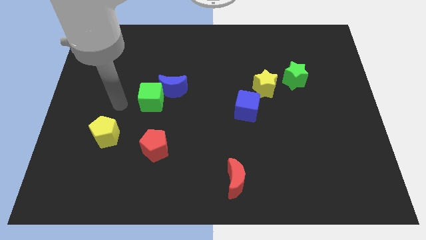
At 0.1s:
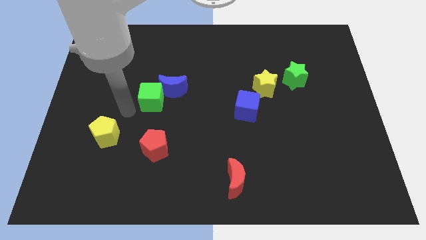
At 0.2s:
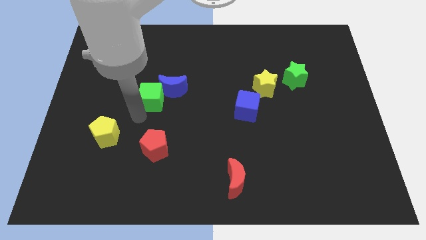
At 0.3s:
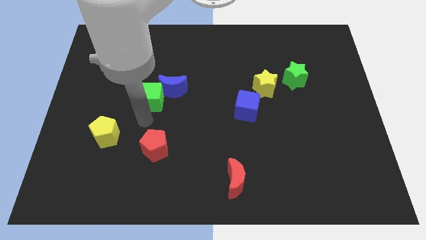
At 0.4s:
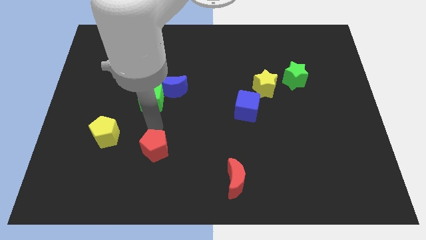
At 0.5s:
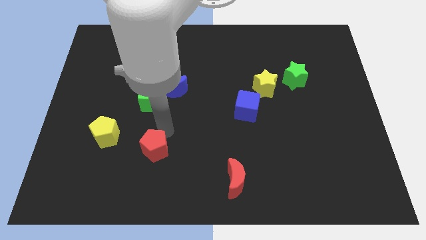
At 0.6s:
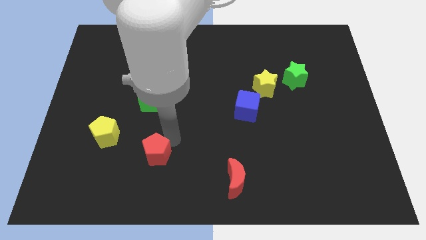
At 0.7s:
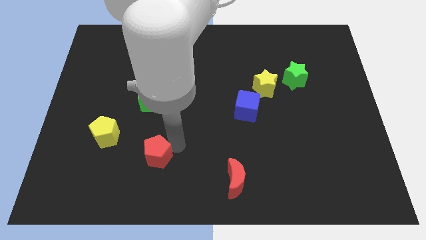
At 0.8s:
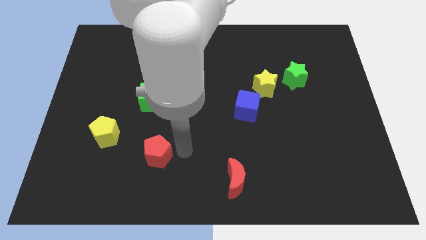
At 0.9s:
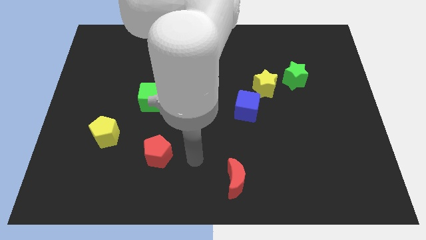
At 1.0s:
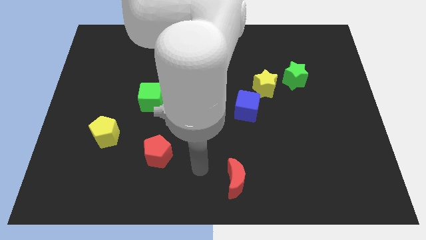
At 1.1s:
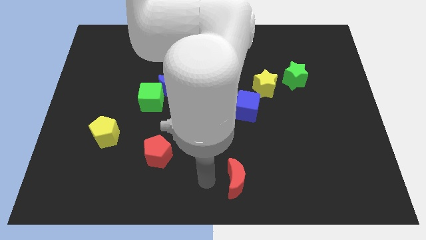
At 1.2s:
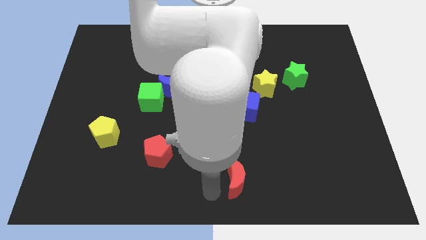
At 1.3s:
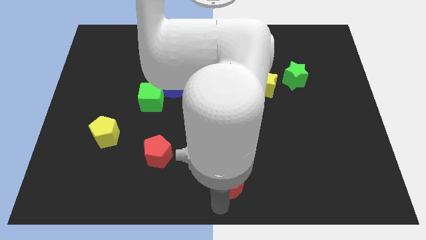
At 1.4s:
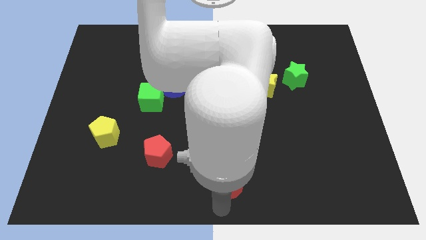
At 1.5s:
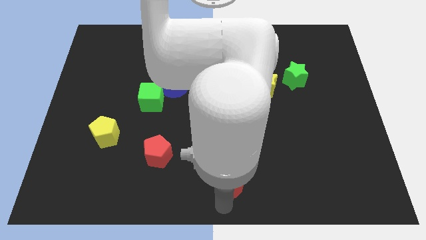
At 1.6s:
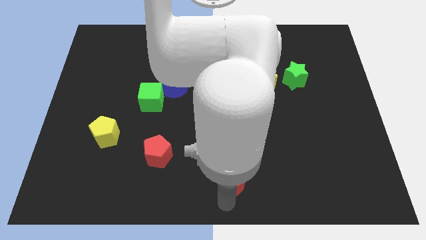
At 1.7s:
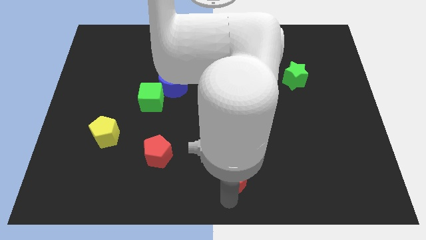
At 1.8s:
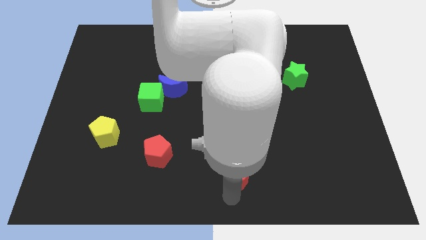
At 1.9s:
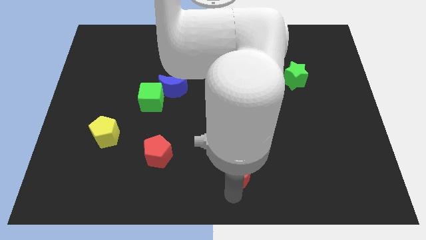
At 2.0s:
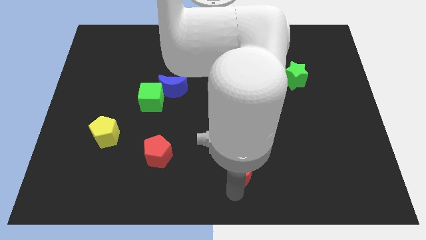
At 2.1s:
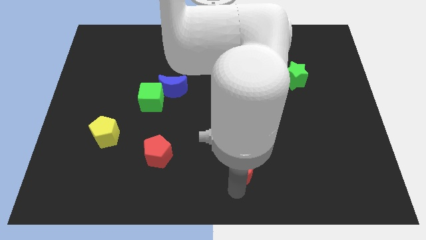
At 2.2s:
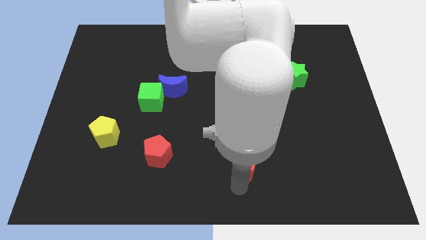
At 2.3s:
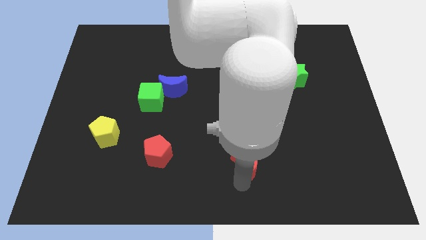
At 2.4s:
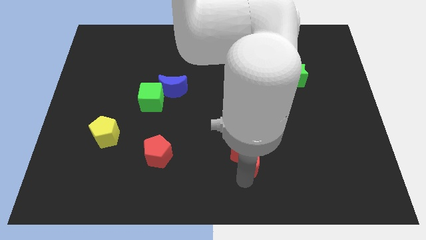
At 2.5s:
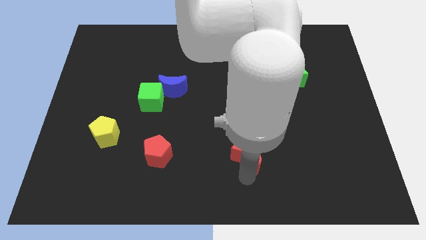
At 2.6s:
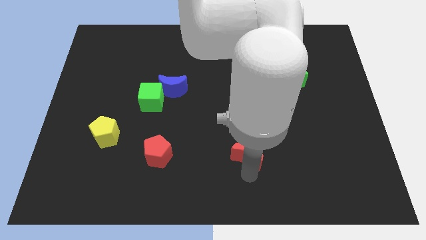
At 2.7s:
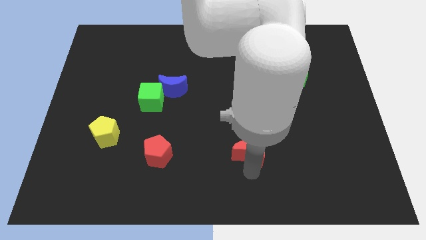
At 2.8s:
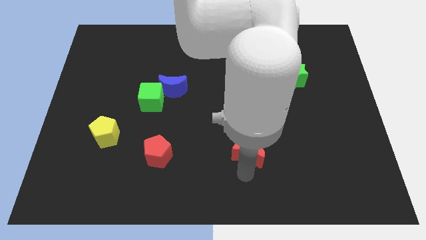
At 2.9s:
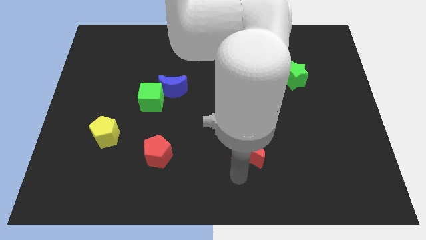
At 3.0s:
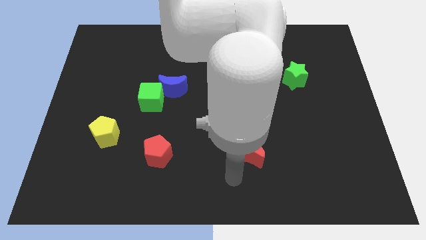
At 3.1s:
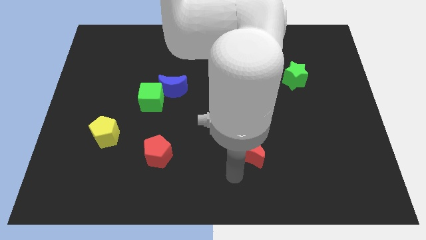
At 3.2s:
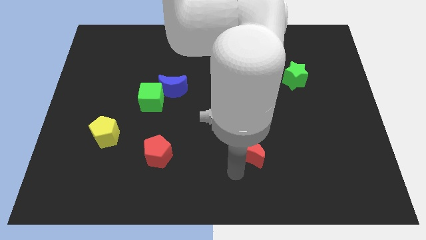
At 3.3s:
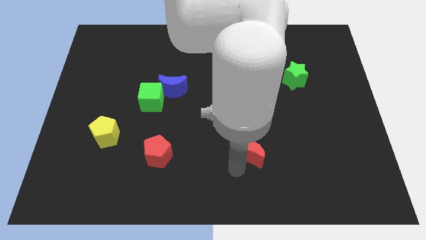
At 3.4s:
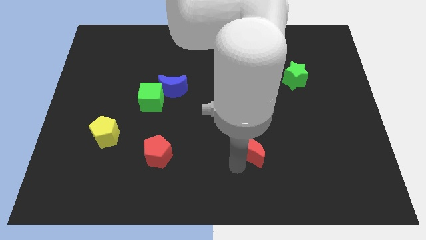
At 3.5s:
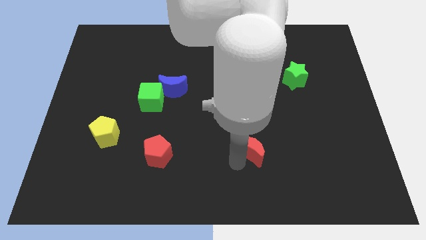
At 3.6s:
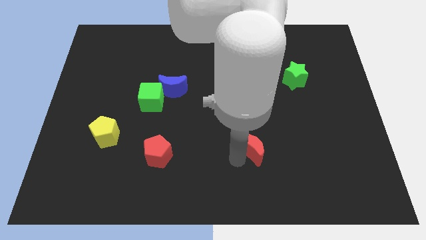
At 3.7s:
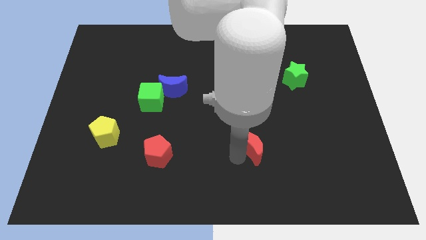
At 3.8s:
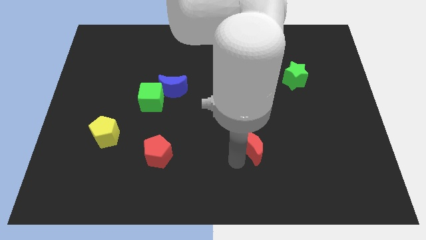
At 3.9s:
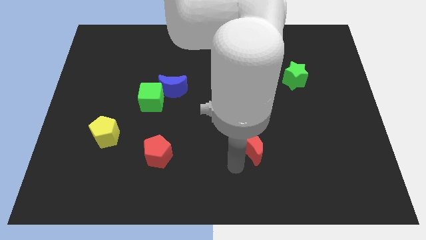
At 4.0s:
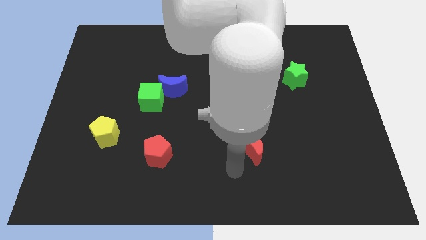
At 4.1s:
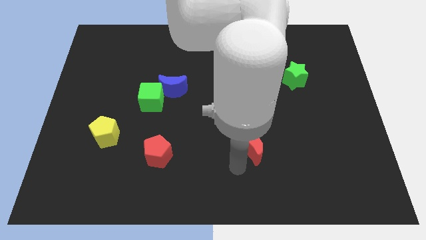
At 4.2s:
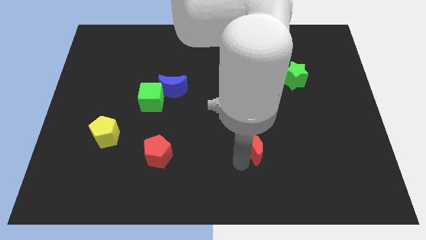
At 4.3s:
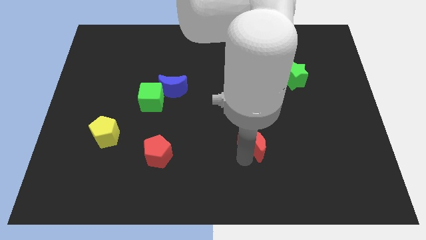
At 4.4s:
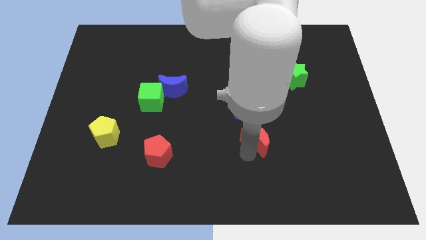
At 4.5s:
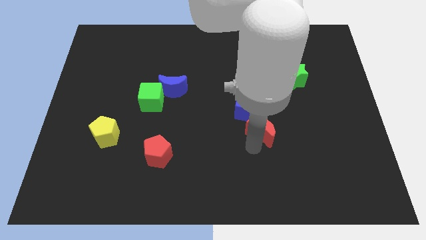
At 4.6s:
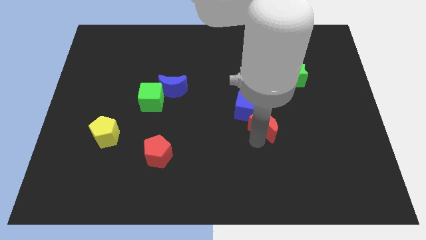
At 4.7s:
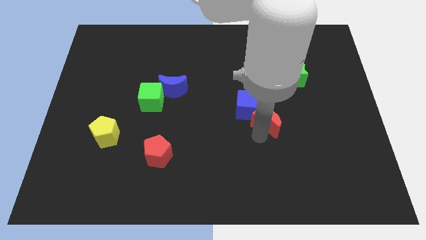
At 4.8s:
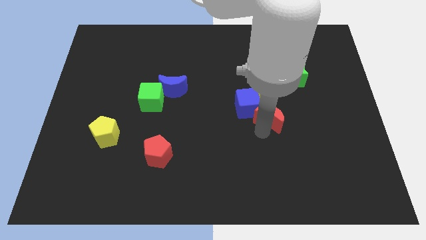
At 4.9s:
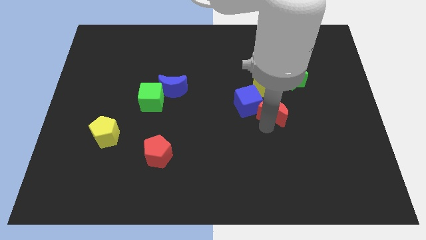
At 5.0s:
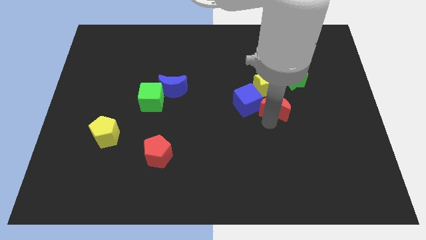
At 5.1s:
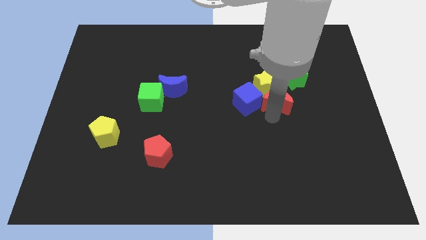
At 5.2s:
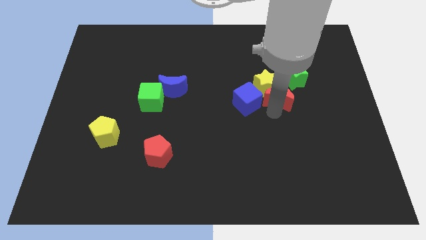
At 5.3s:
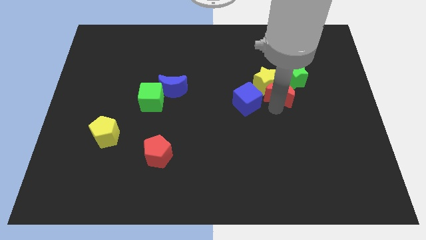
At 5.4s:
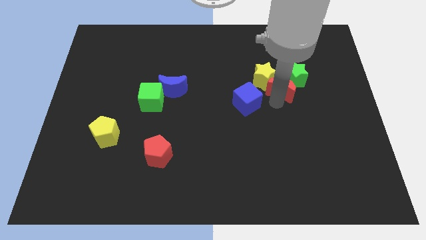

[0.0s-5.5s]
slide the red moon close to the green star

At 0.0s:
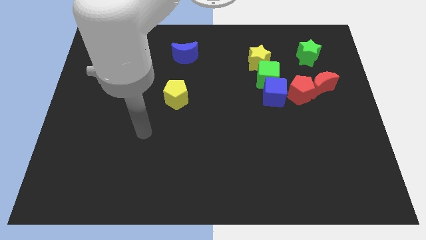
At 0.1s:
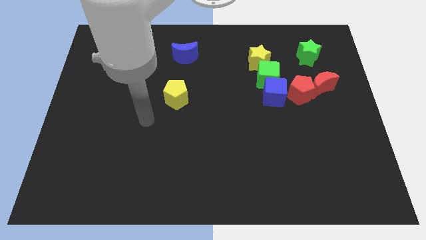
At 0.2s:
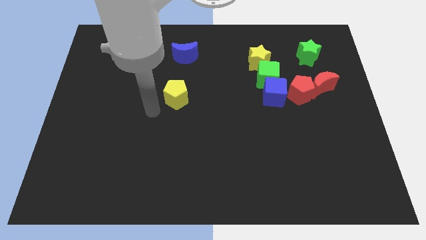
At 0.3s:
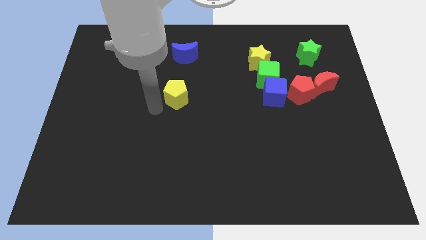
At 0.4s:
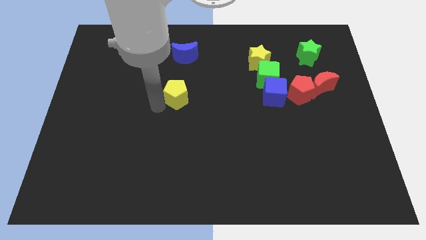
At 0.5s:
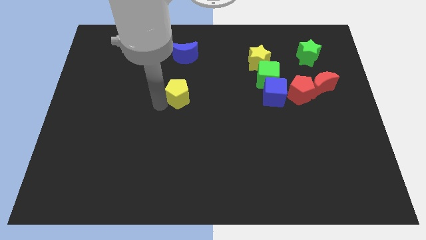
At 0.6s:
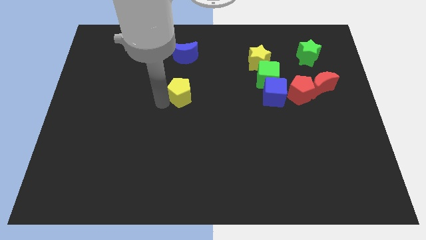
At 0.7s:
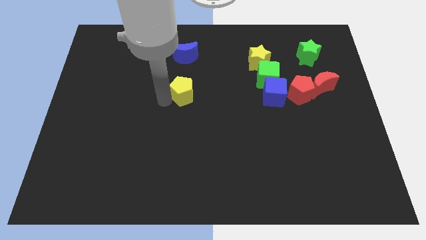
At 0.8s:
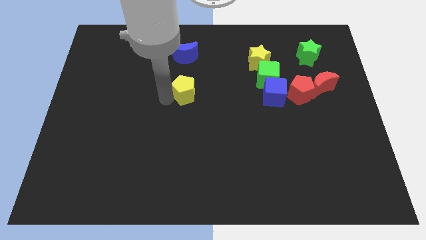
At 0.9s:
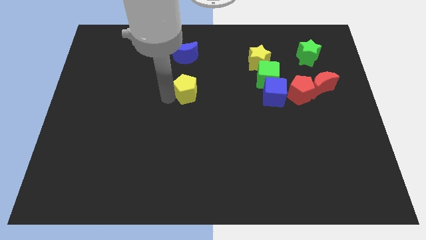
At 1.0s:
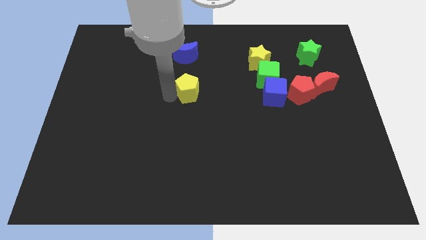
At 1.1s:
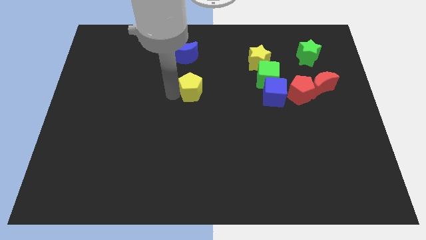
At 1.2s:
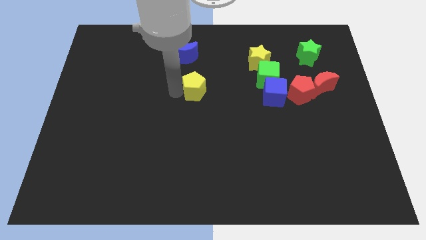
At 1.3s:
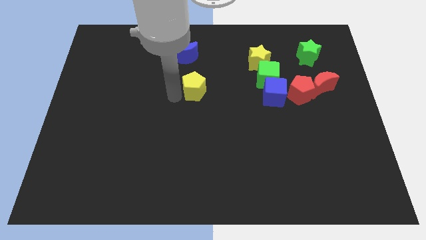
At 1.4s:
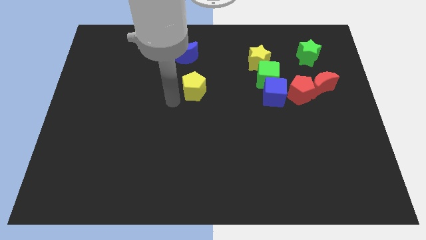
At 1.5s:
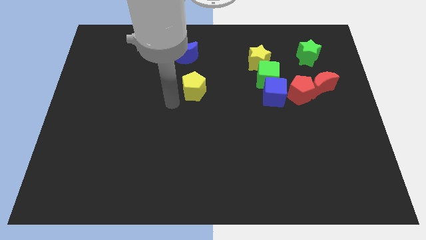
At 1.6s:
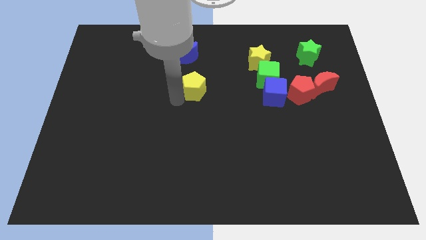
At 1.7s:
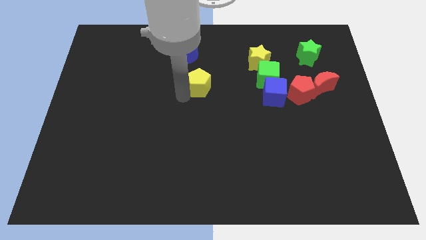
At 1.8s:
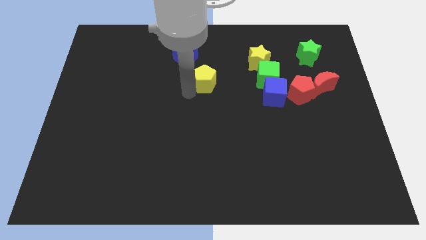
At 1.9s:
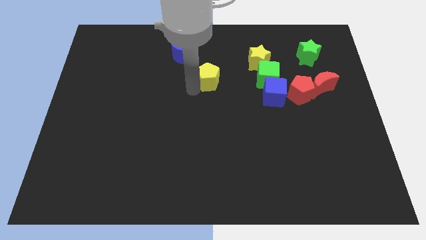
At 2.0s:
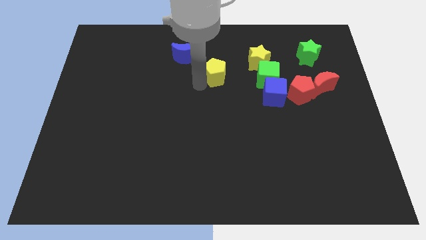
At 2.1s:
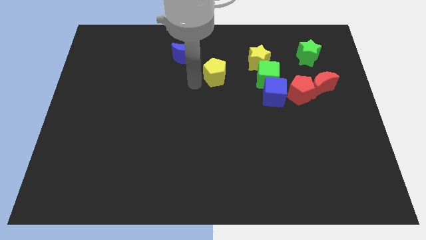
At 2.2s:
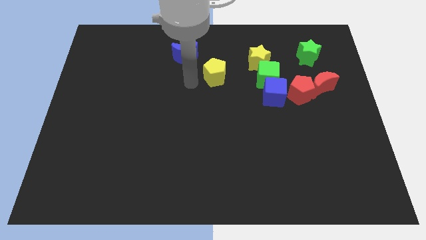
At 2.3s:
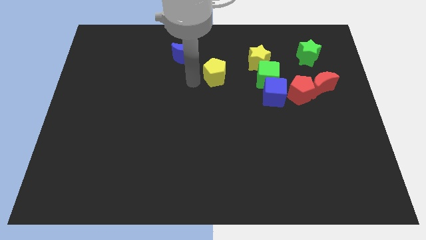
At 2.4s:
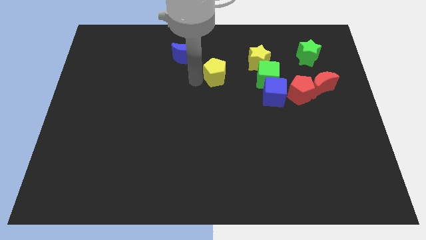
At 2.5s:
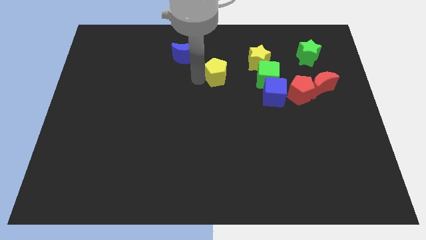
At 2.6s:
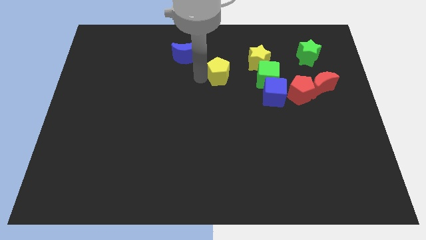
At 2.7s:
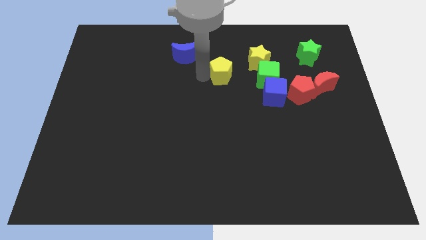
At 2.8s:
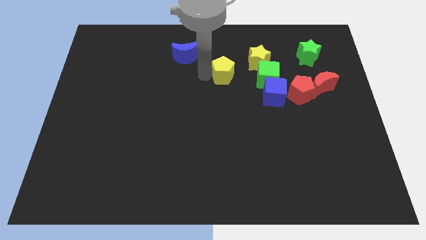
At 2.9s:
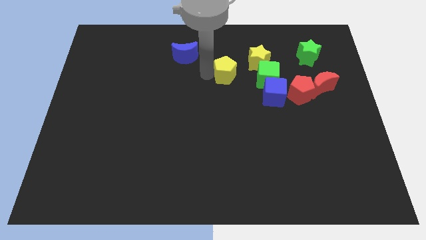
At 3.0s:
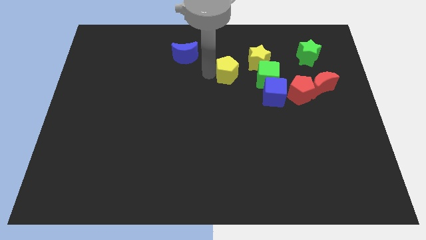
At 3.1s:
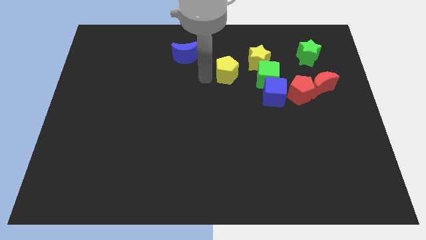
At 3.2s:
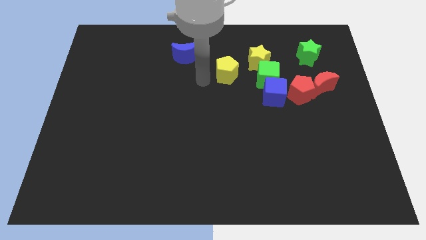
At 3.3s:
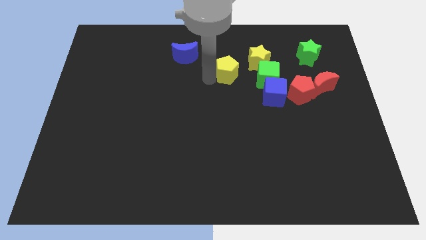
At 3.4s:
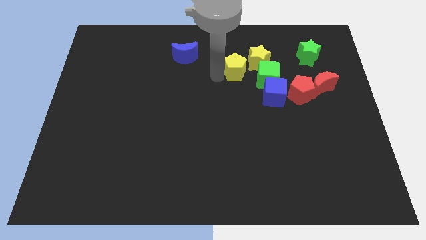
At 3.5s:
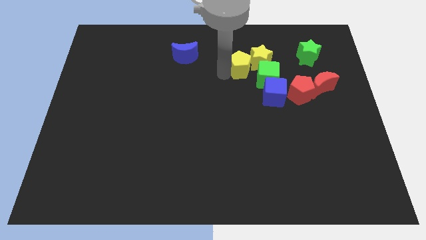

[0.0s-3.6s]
move the yellow pentagon next to the yellow star
